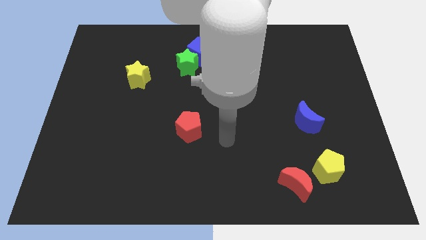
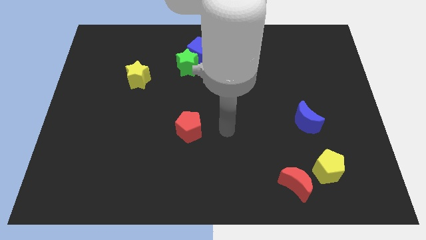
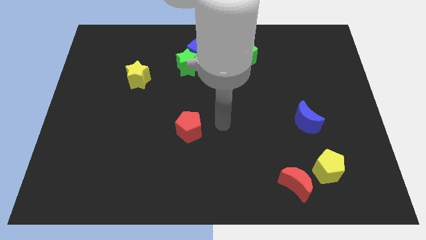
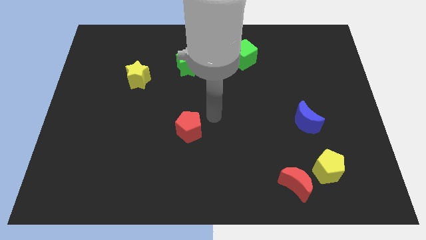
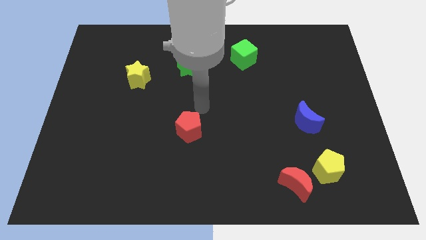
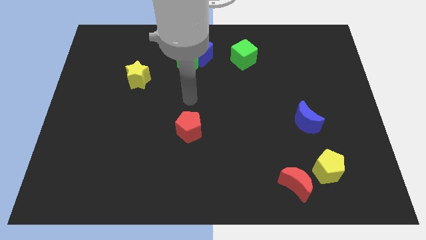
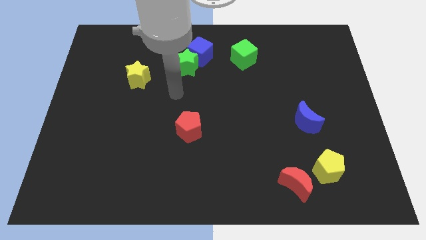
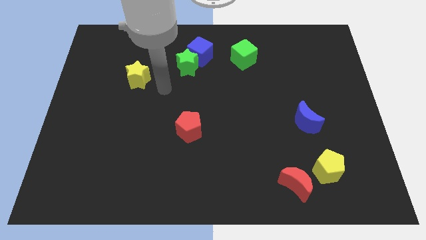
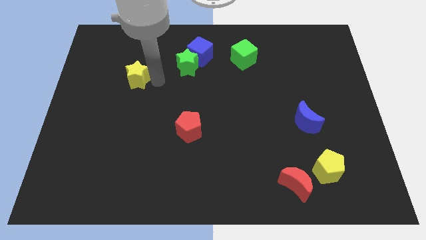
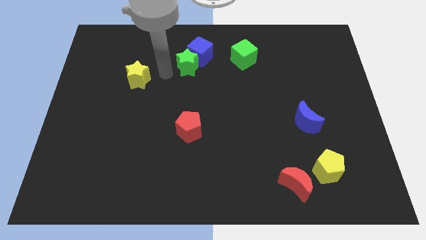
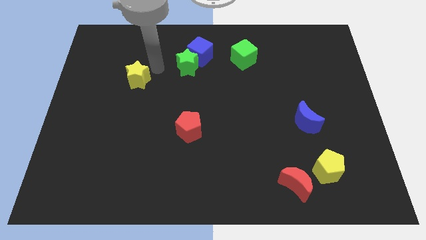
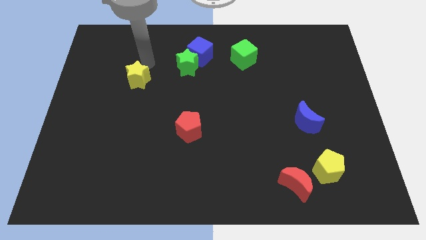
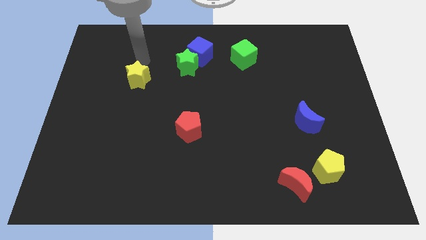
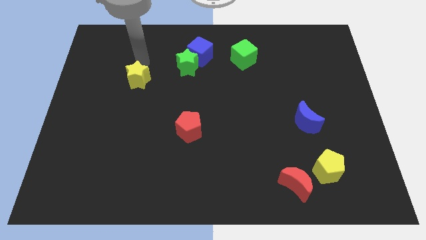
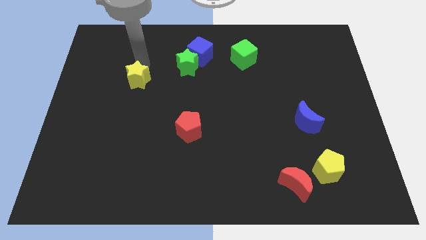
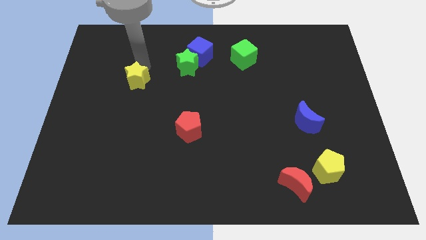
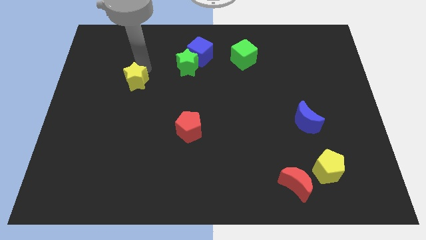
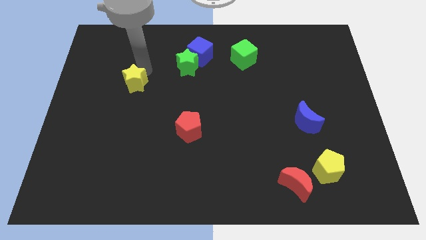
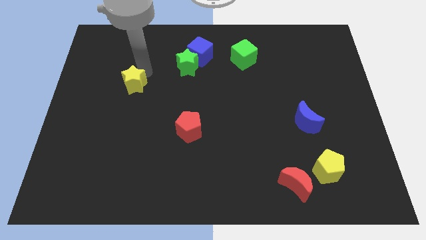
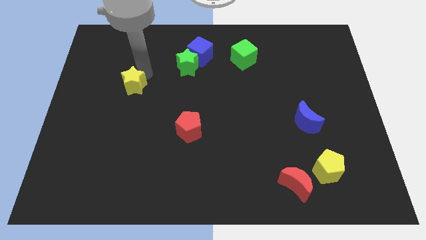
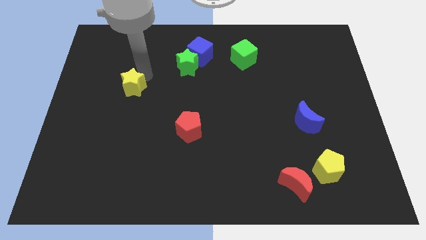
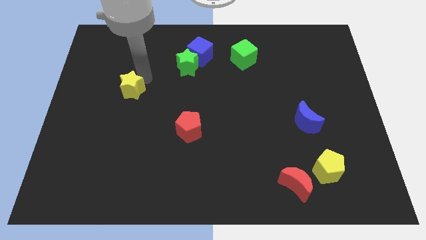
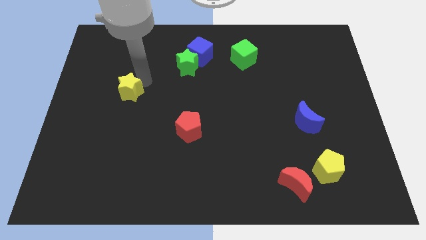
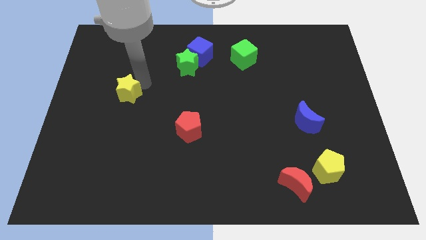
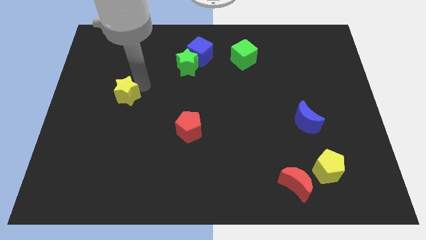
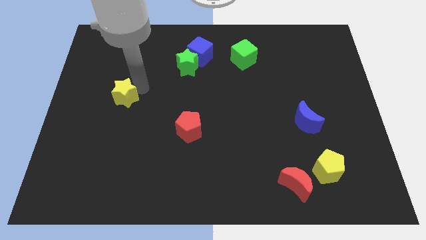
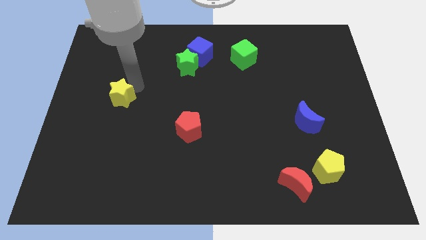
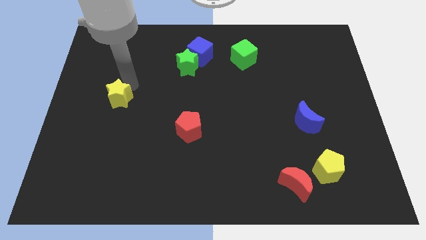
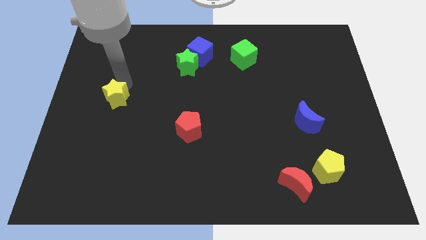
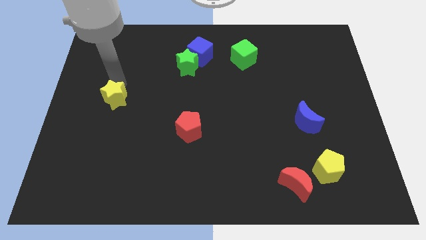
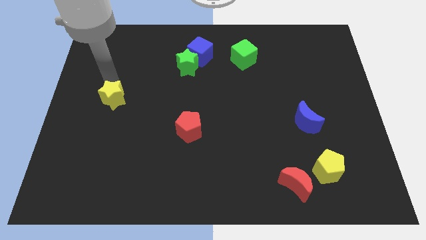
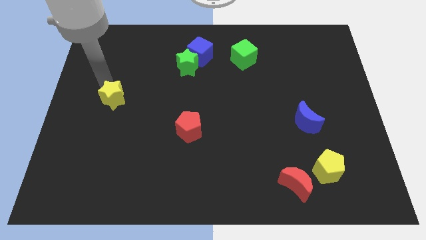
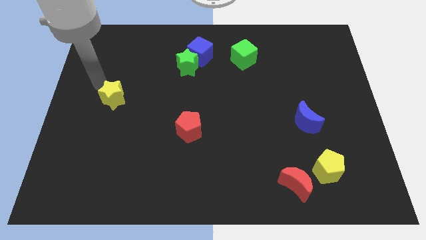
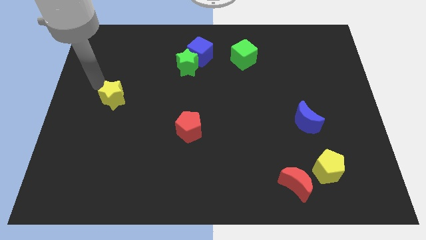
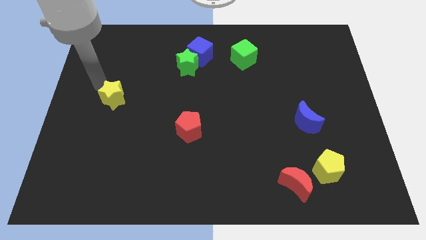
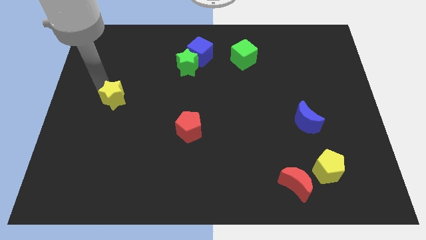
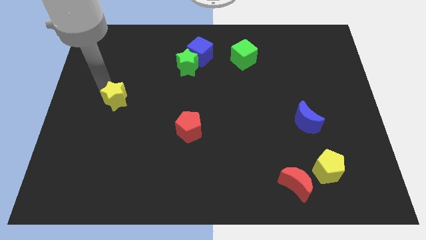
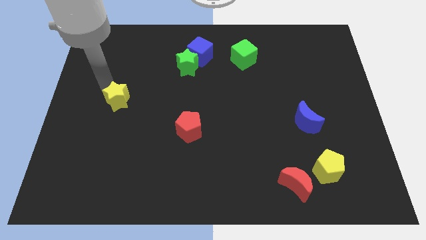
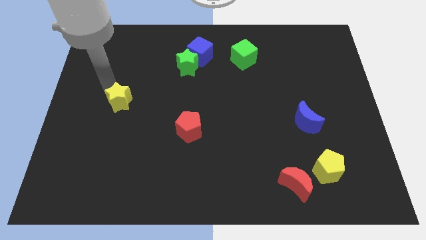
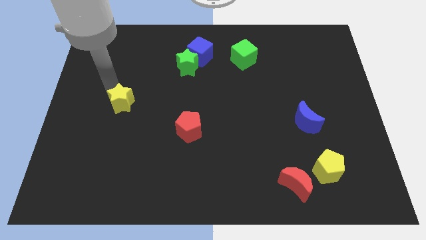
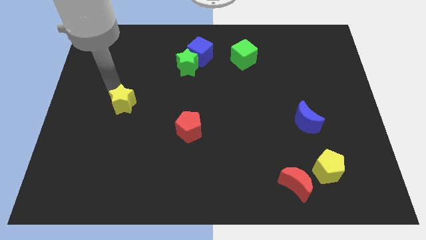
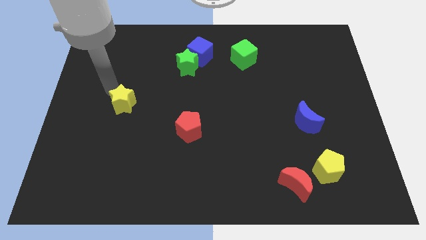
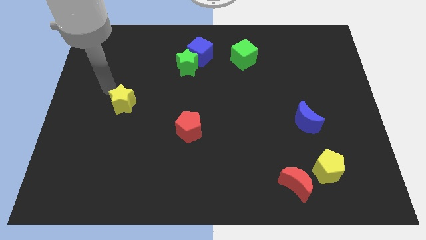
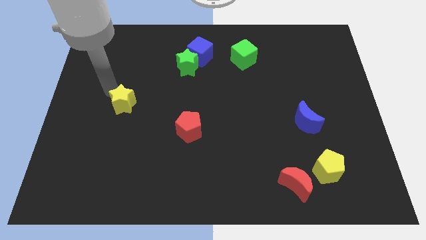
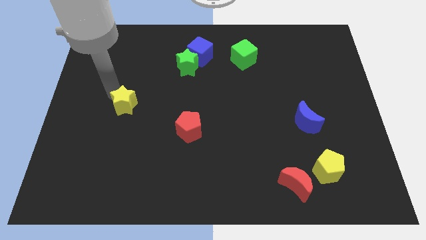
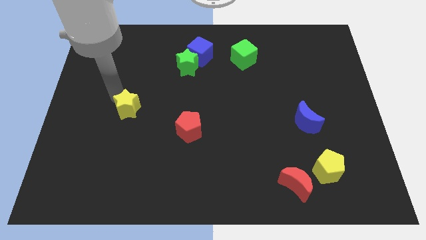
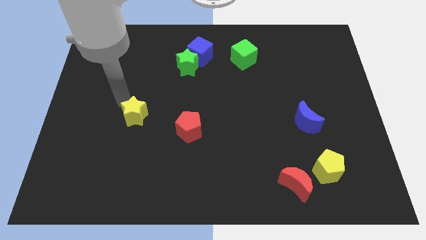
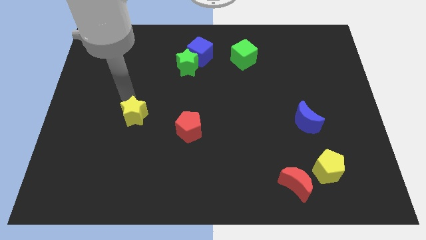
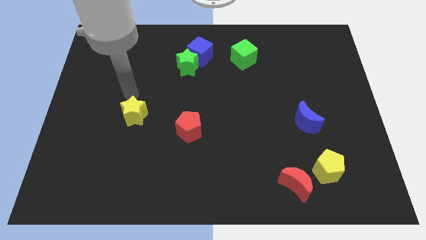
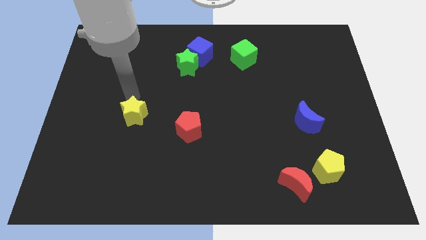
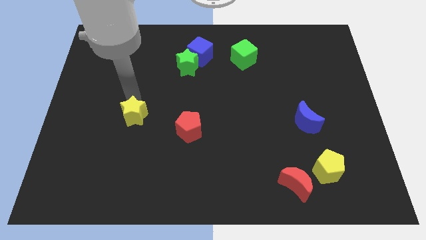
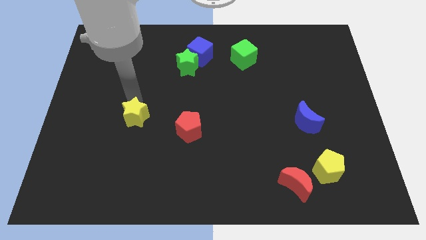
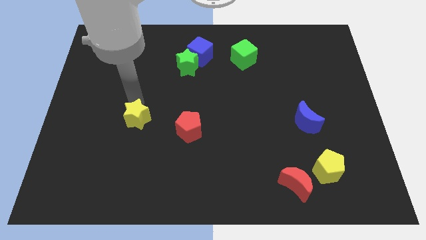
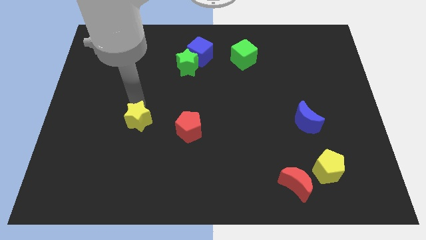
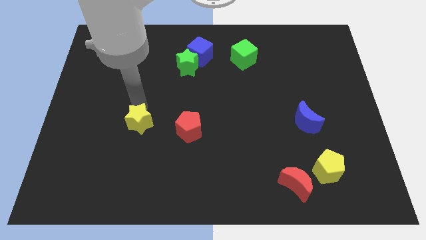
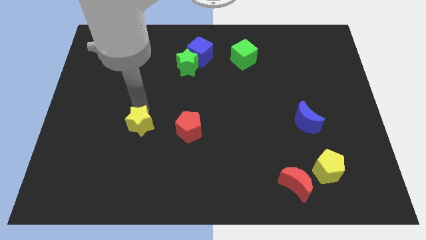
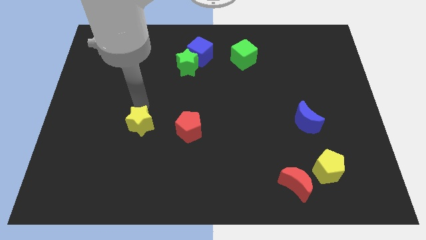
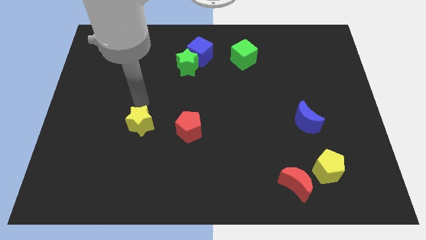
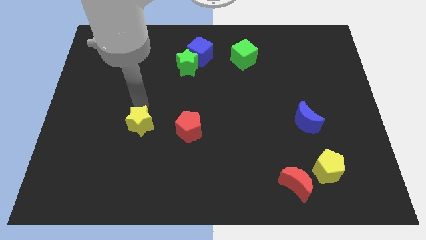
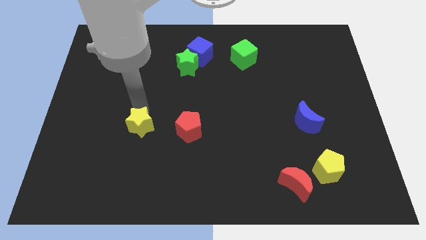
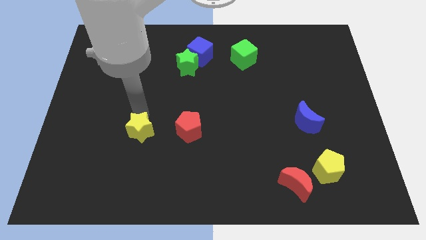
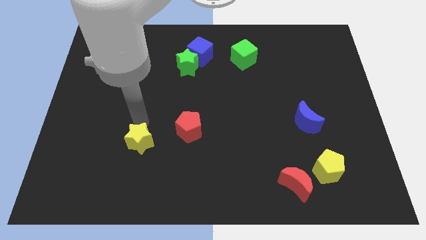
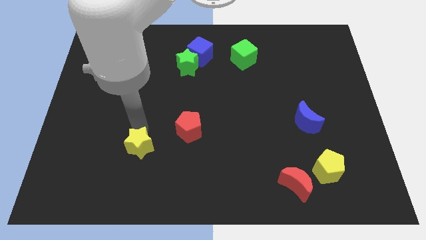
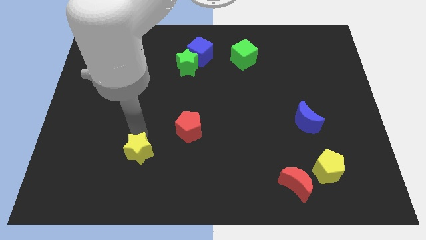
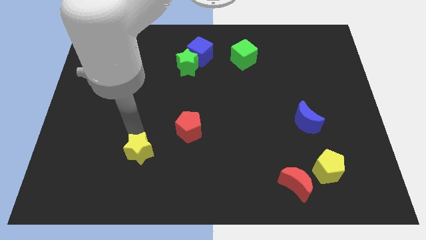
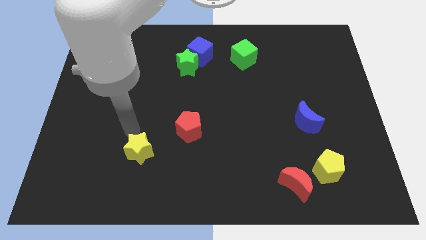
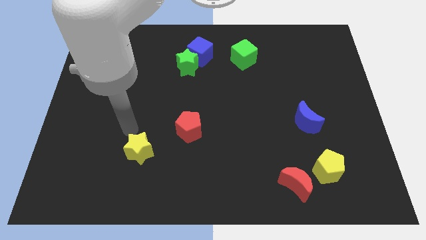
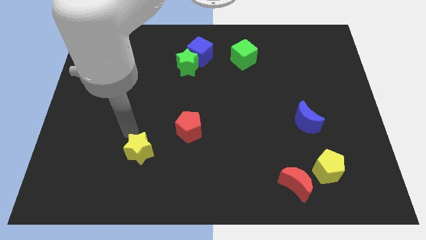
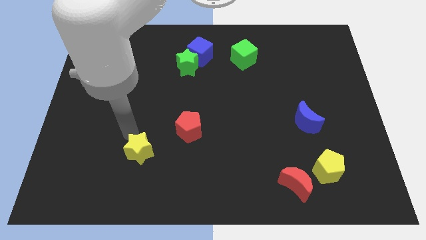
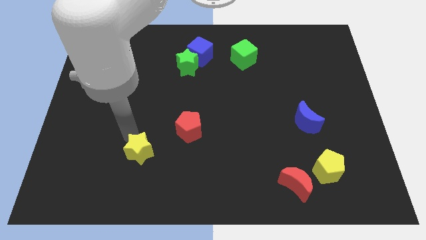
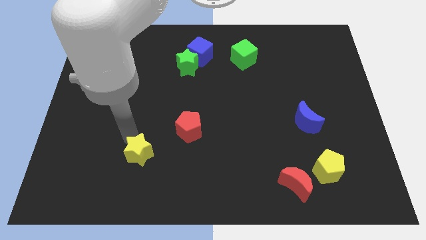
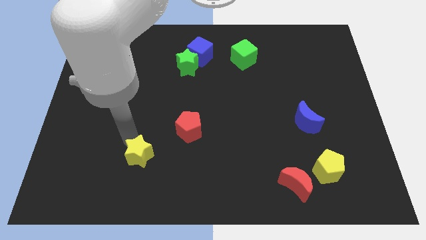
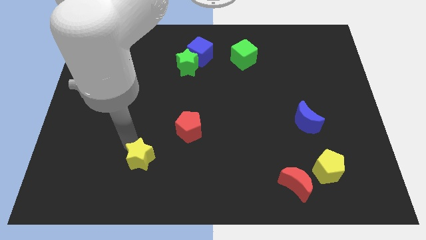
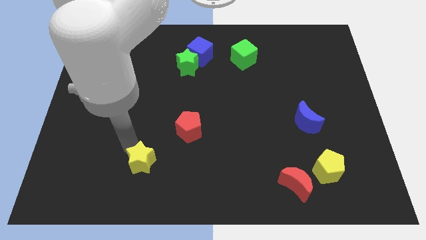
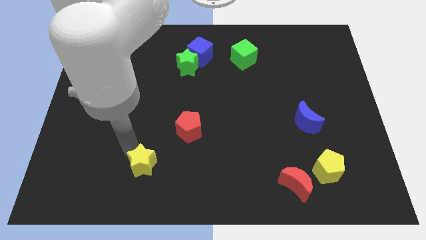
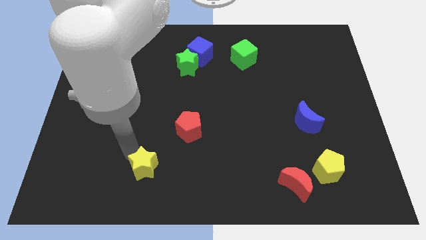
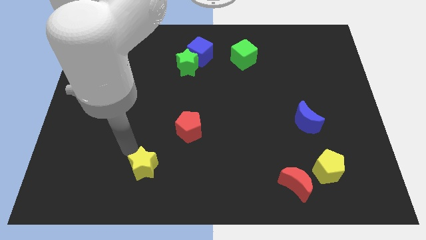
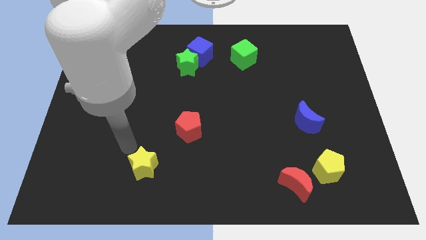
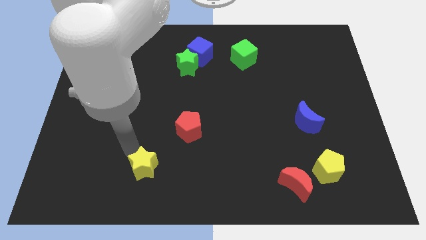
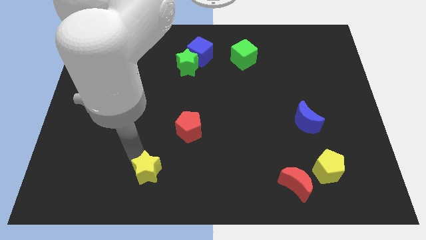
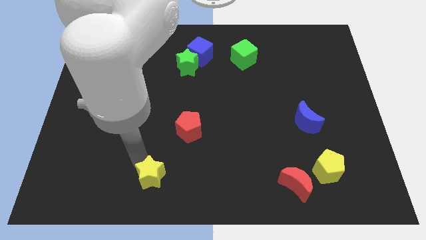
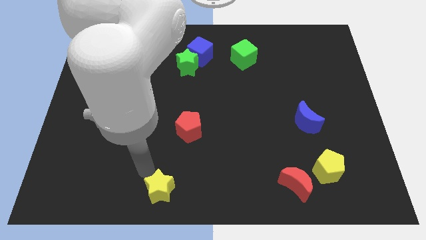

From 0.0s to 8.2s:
push the yellow star to the bottom
